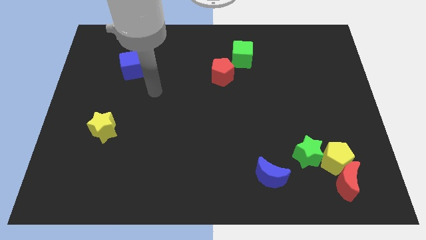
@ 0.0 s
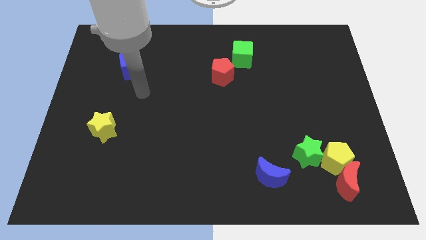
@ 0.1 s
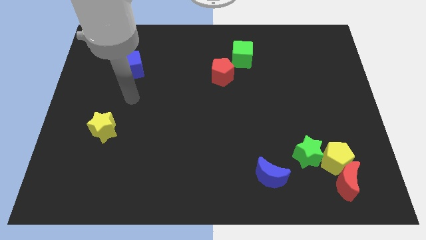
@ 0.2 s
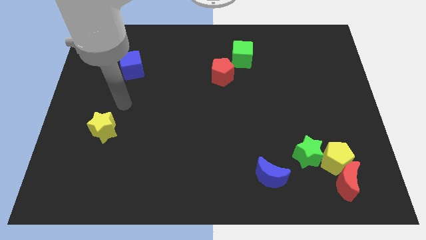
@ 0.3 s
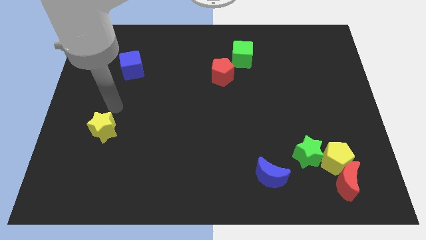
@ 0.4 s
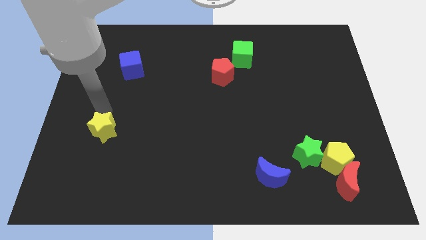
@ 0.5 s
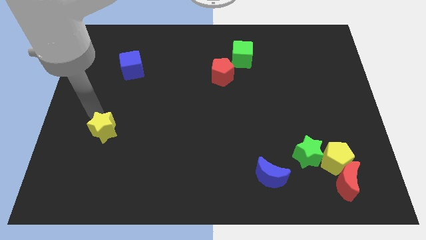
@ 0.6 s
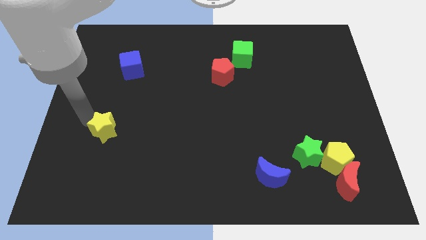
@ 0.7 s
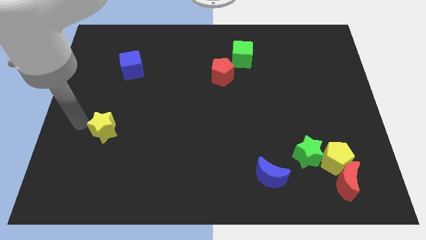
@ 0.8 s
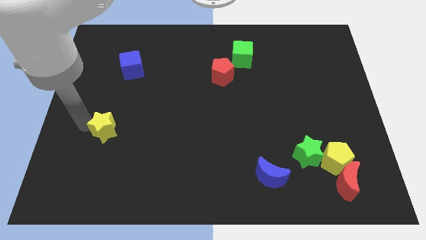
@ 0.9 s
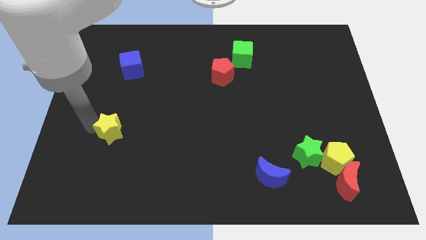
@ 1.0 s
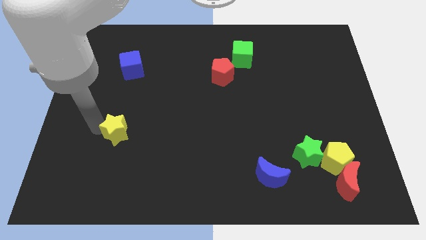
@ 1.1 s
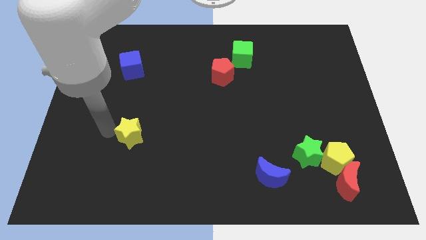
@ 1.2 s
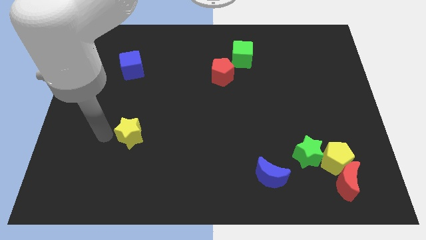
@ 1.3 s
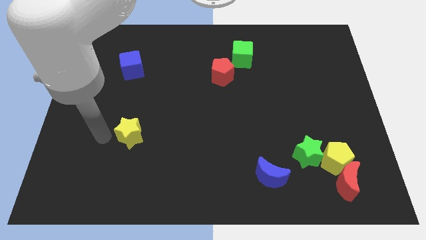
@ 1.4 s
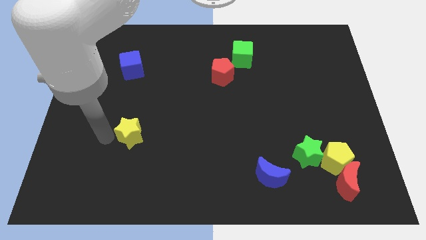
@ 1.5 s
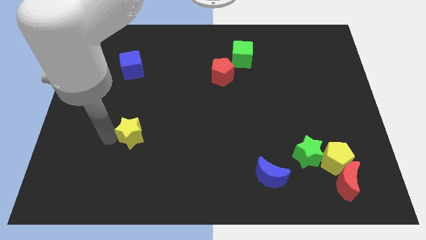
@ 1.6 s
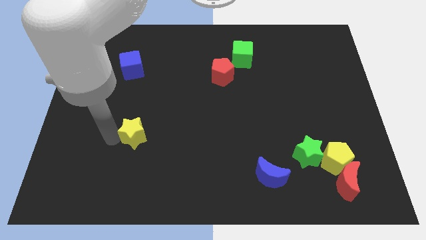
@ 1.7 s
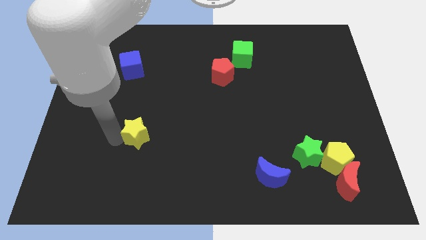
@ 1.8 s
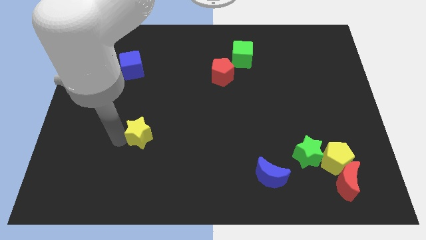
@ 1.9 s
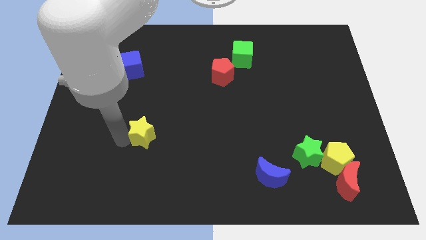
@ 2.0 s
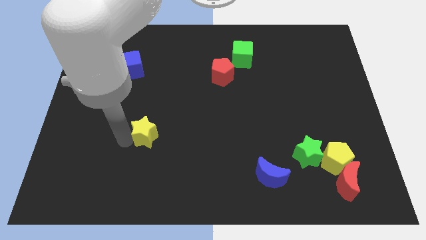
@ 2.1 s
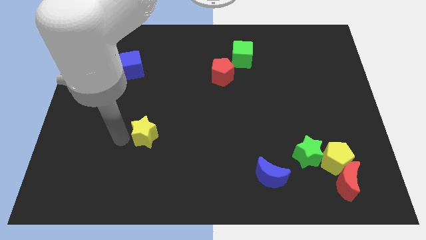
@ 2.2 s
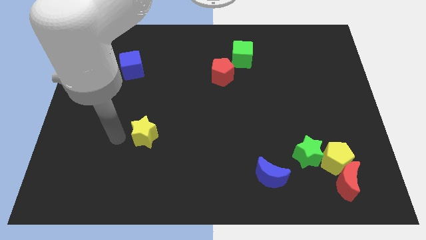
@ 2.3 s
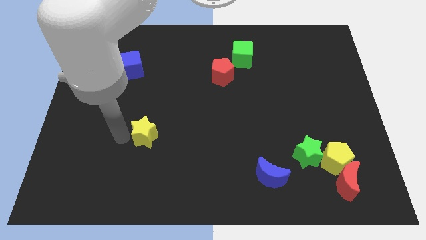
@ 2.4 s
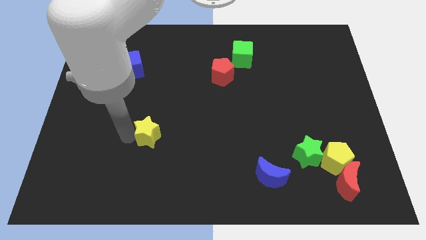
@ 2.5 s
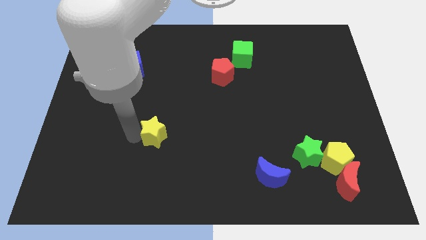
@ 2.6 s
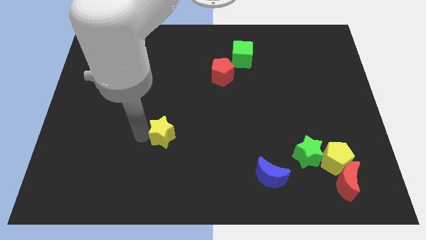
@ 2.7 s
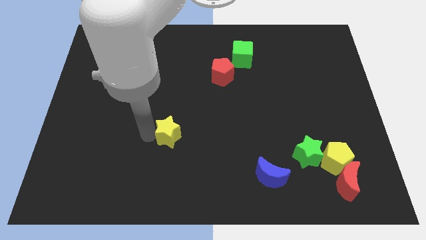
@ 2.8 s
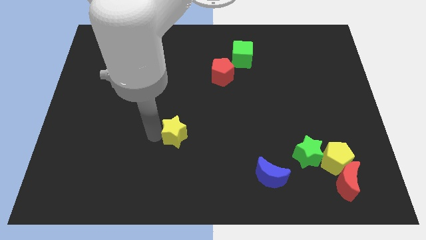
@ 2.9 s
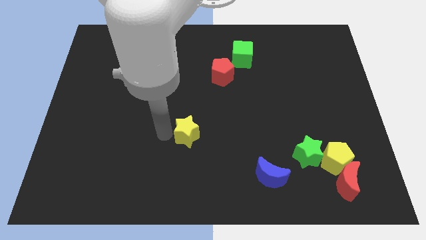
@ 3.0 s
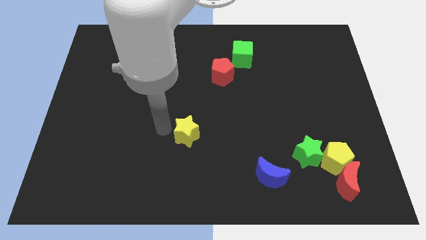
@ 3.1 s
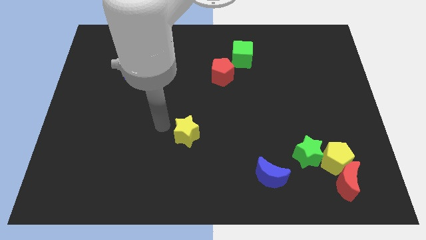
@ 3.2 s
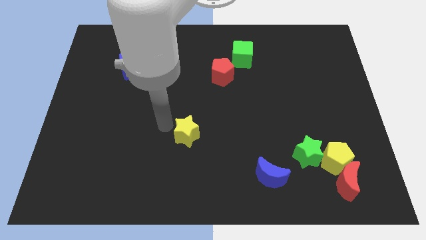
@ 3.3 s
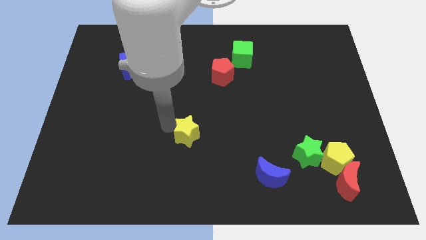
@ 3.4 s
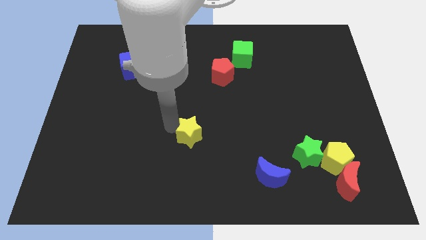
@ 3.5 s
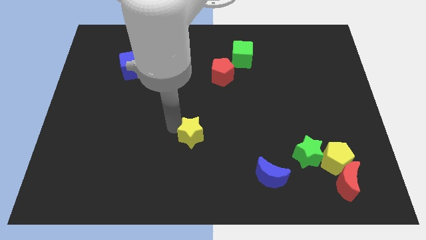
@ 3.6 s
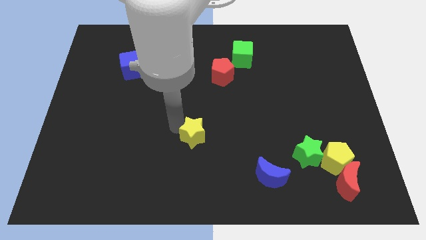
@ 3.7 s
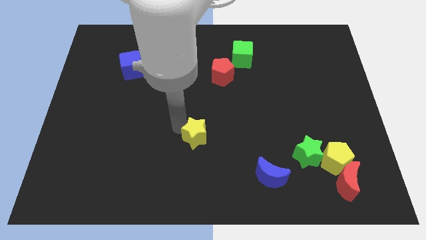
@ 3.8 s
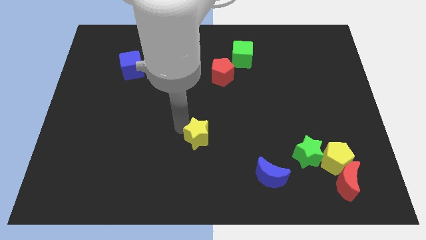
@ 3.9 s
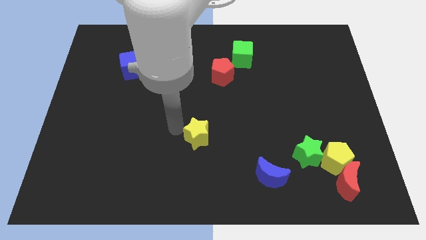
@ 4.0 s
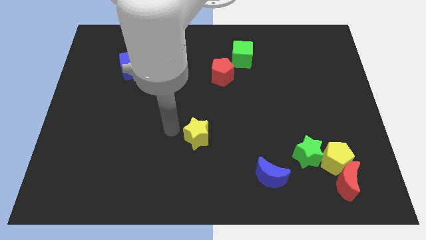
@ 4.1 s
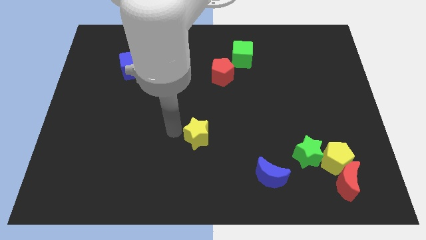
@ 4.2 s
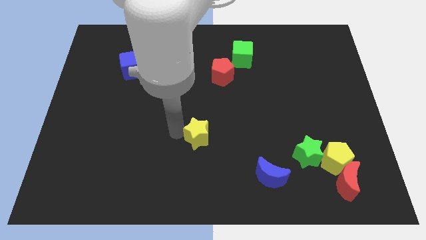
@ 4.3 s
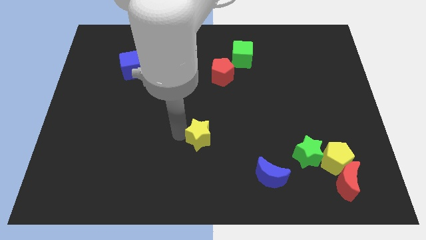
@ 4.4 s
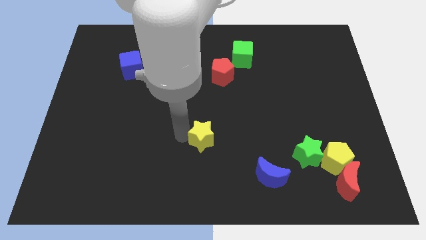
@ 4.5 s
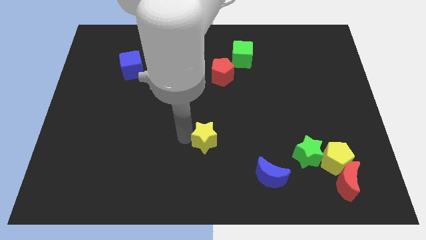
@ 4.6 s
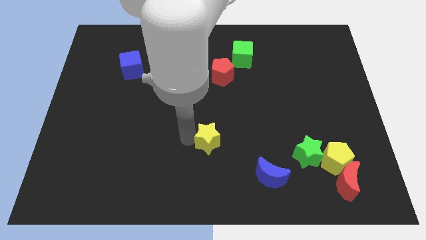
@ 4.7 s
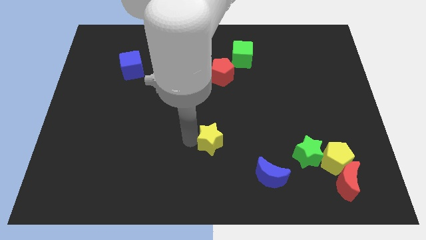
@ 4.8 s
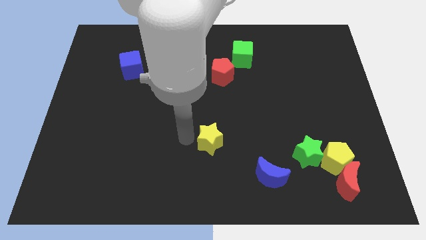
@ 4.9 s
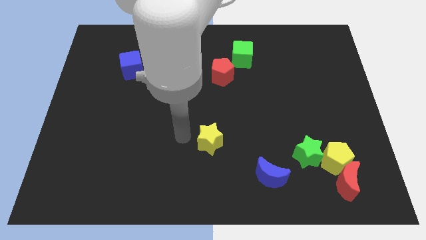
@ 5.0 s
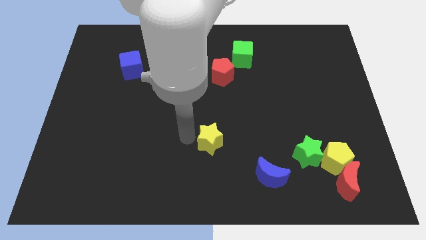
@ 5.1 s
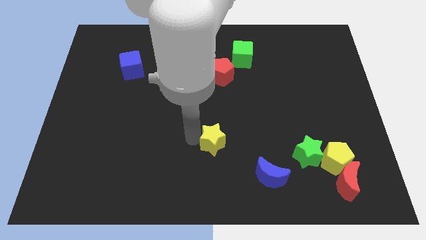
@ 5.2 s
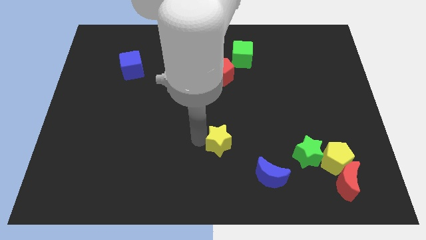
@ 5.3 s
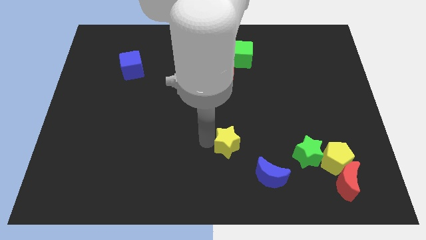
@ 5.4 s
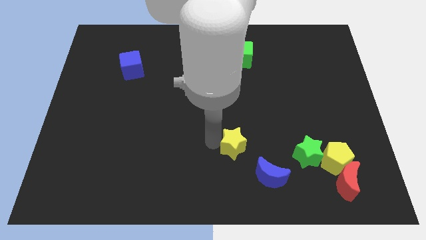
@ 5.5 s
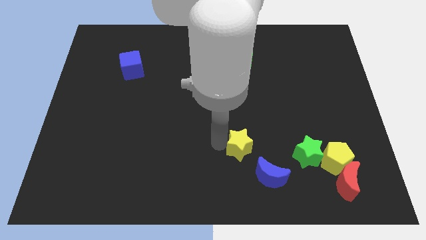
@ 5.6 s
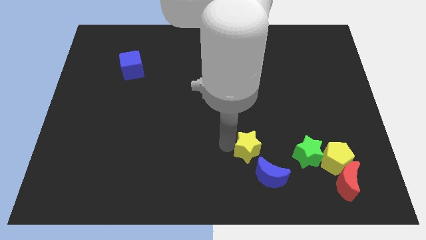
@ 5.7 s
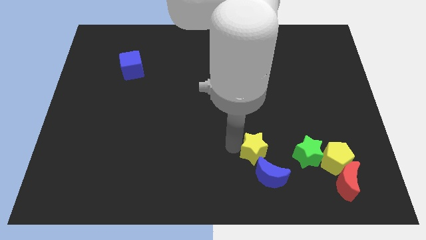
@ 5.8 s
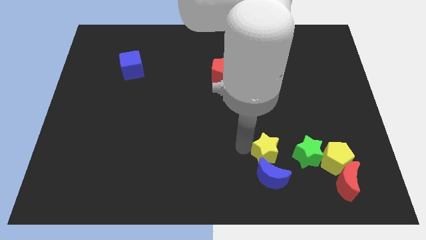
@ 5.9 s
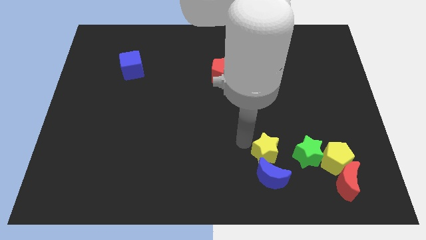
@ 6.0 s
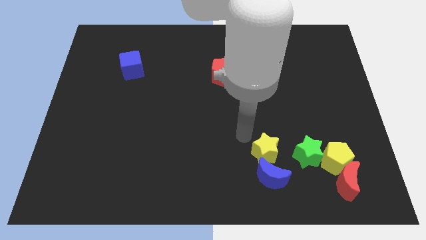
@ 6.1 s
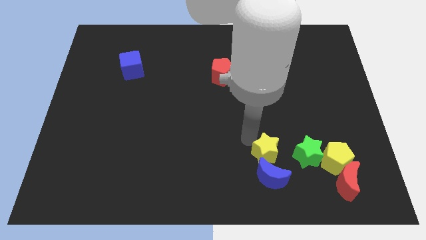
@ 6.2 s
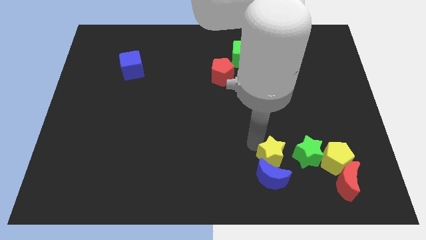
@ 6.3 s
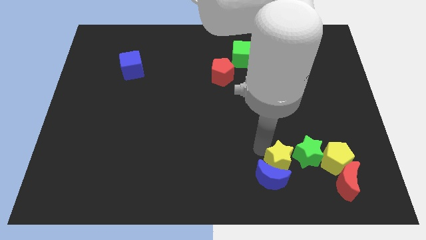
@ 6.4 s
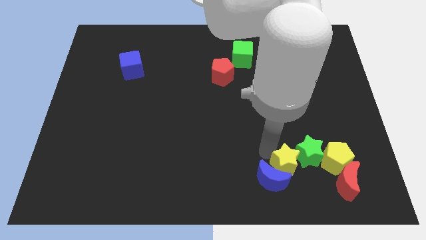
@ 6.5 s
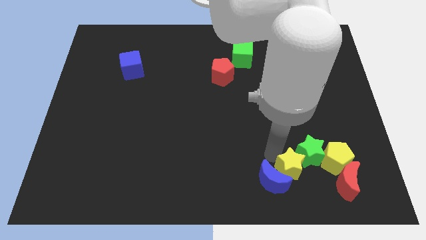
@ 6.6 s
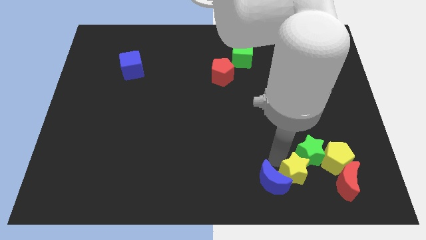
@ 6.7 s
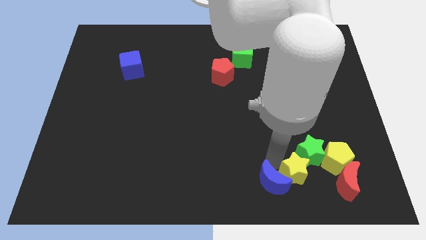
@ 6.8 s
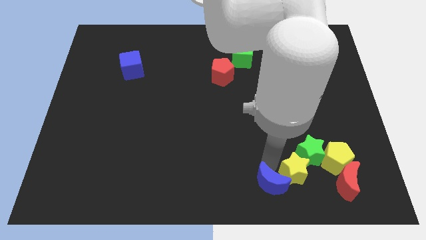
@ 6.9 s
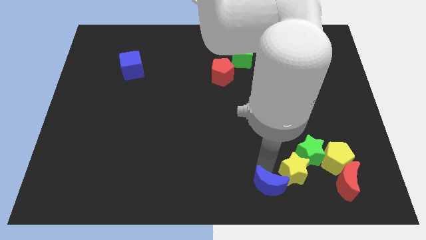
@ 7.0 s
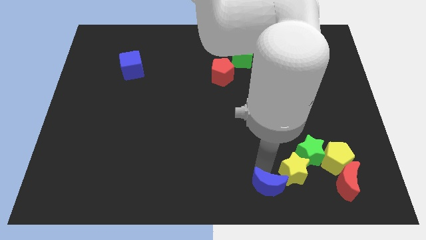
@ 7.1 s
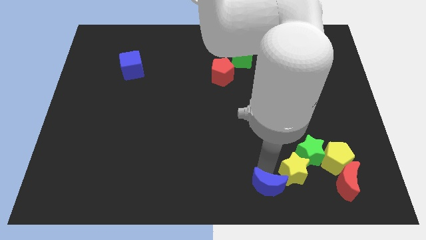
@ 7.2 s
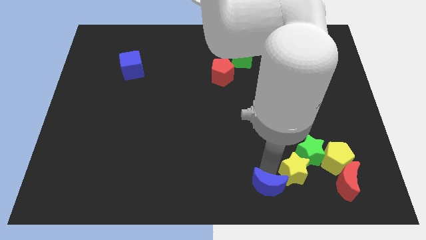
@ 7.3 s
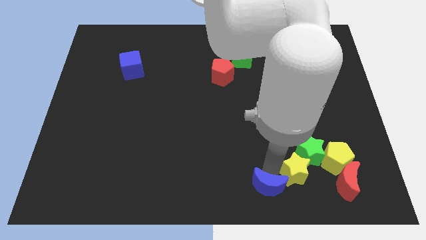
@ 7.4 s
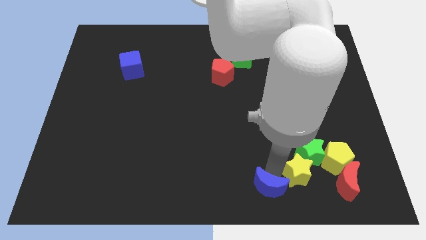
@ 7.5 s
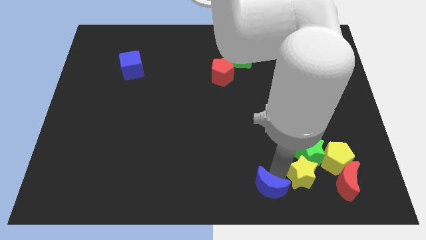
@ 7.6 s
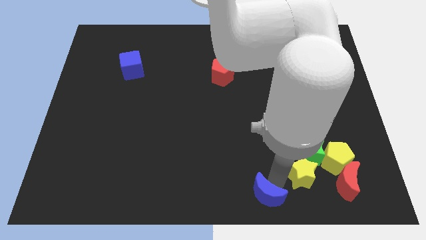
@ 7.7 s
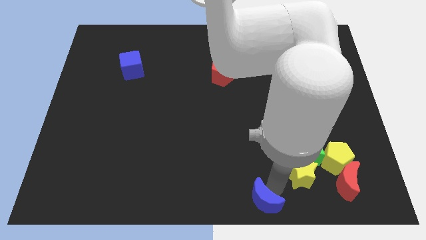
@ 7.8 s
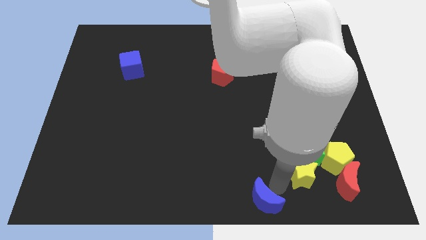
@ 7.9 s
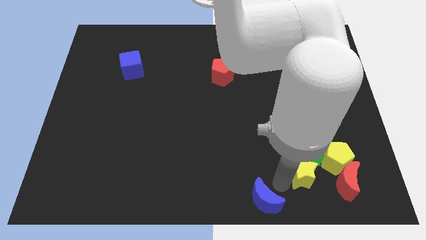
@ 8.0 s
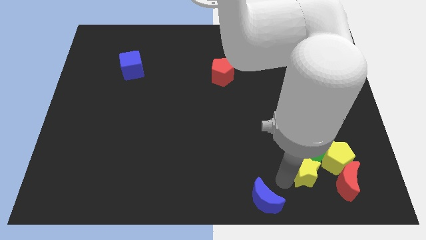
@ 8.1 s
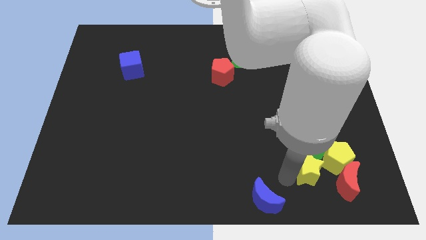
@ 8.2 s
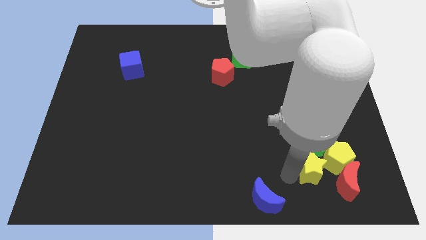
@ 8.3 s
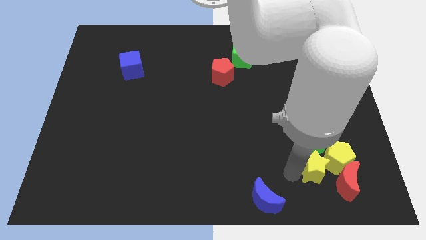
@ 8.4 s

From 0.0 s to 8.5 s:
slide the yellow star towards the yellow pentagon
